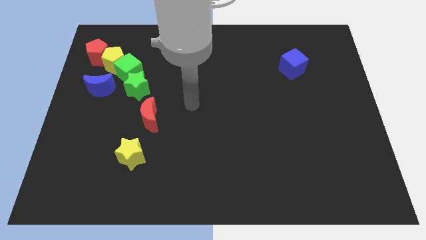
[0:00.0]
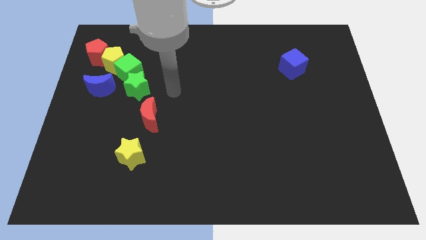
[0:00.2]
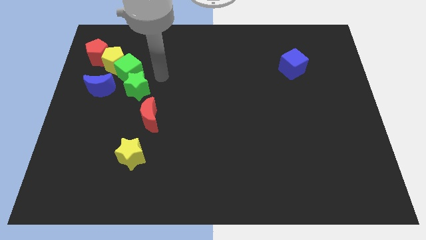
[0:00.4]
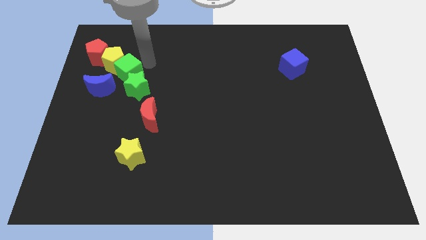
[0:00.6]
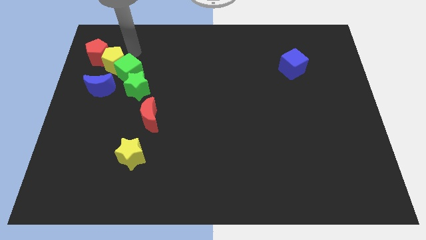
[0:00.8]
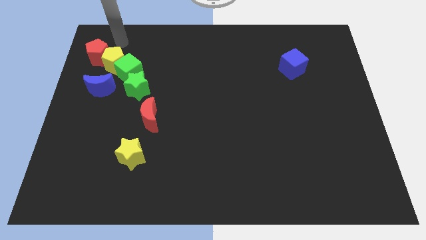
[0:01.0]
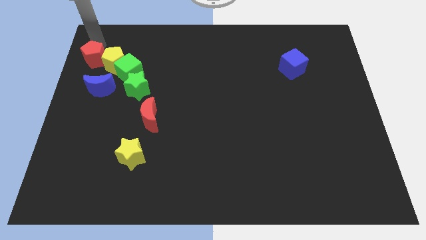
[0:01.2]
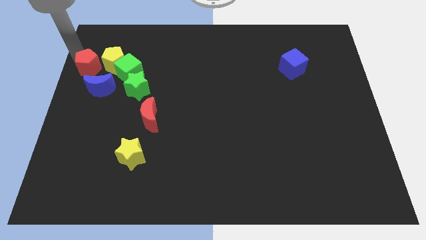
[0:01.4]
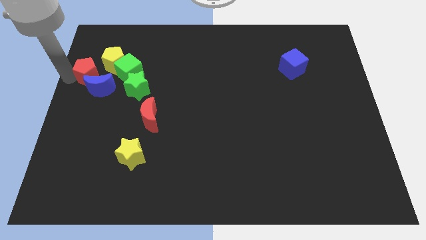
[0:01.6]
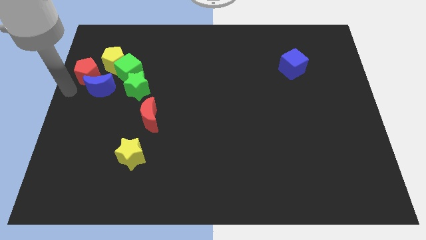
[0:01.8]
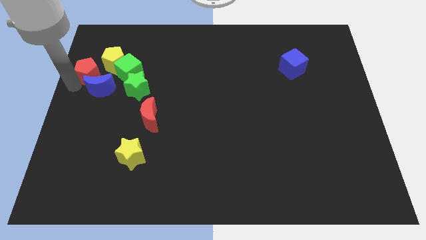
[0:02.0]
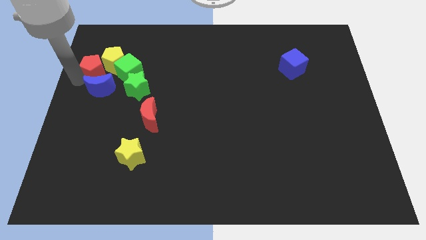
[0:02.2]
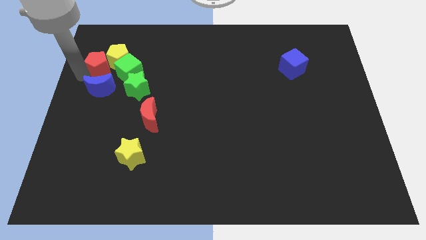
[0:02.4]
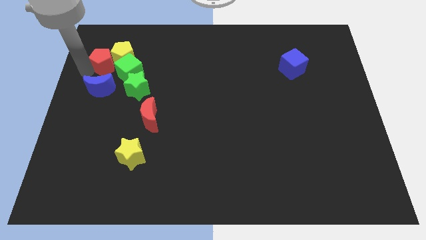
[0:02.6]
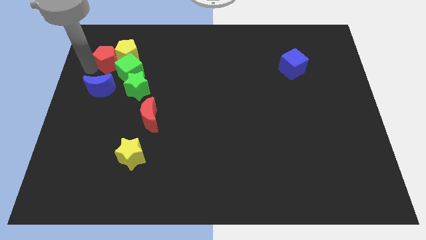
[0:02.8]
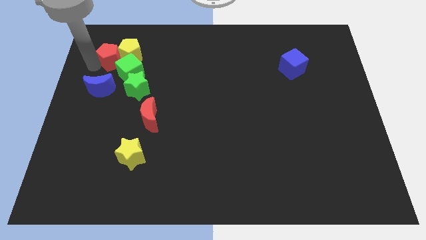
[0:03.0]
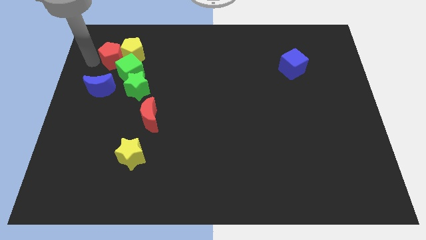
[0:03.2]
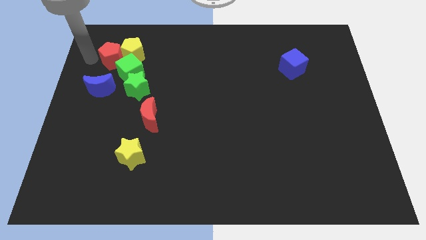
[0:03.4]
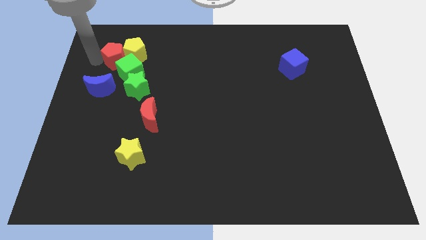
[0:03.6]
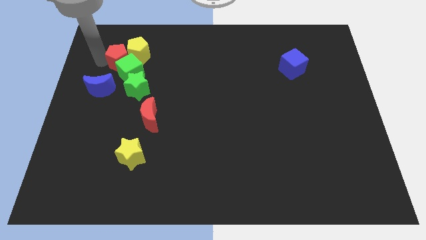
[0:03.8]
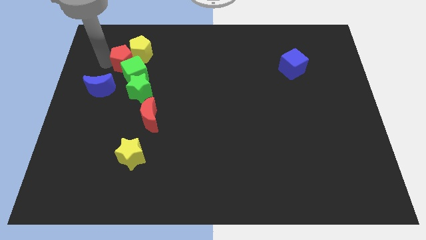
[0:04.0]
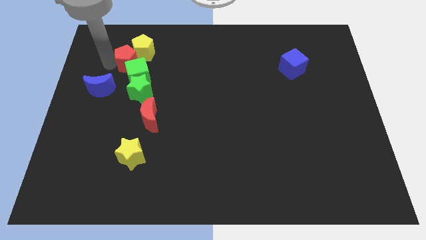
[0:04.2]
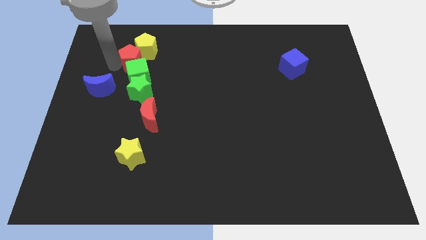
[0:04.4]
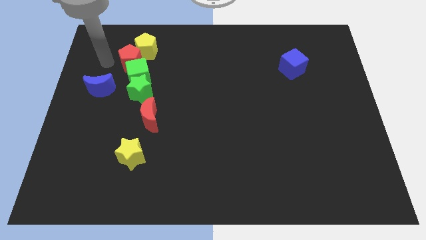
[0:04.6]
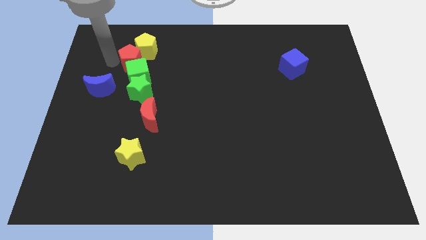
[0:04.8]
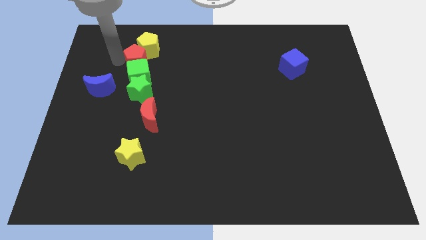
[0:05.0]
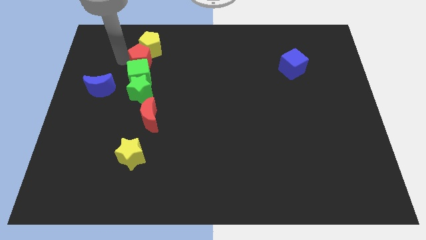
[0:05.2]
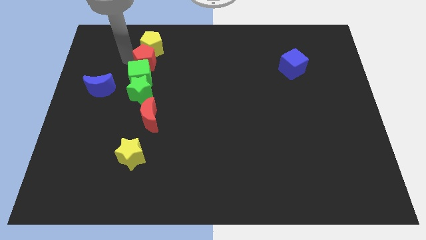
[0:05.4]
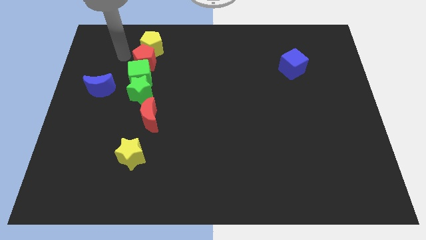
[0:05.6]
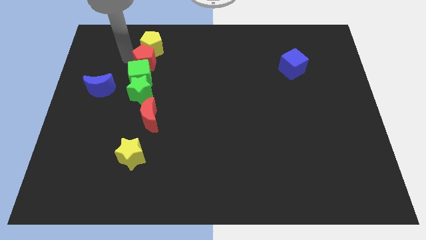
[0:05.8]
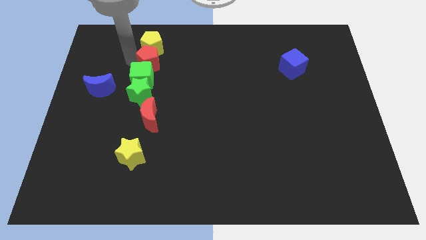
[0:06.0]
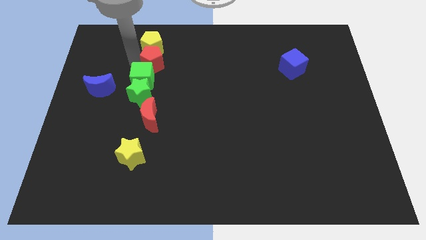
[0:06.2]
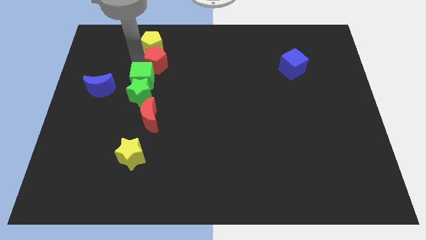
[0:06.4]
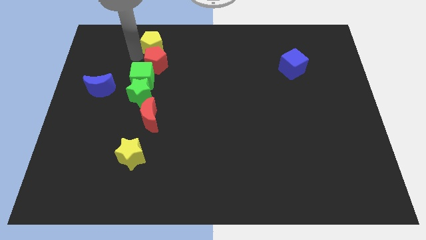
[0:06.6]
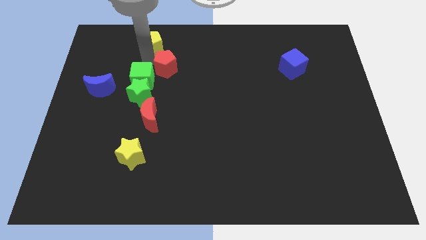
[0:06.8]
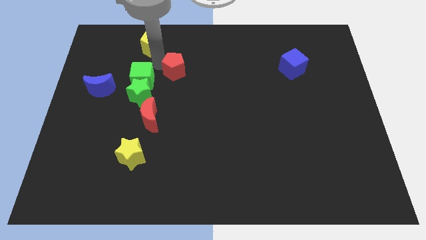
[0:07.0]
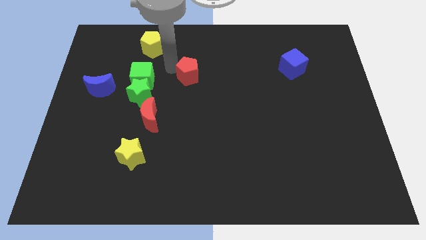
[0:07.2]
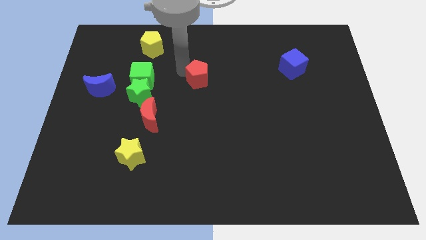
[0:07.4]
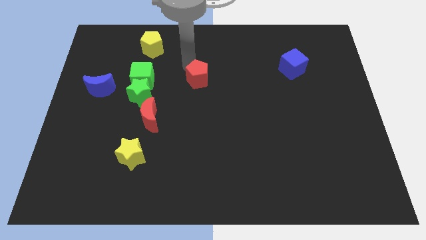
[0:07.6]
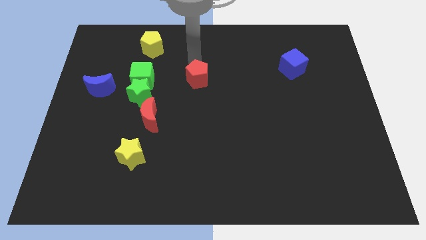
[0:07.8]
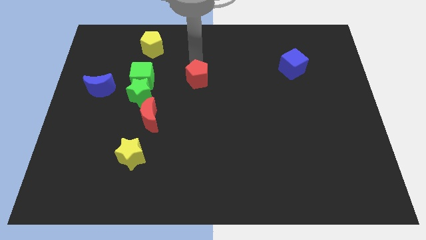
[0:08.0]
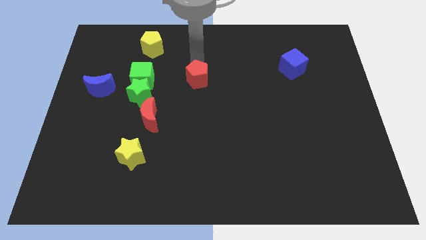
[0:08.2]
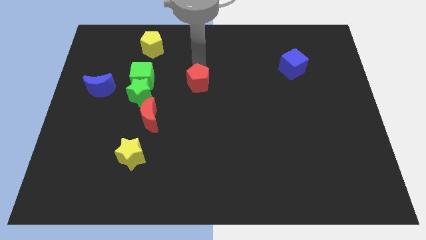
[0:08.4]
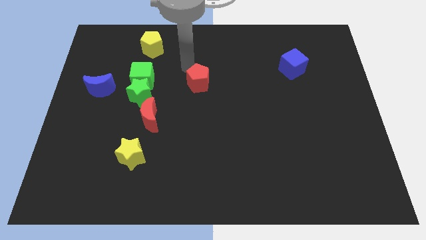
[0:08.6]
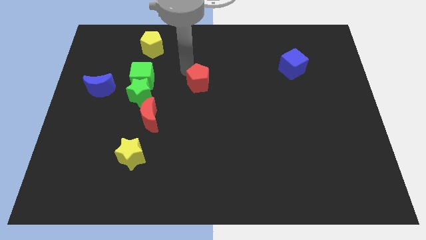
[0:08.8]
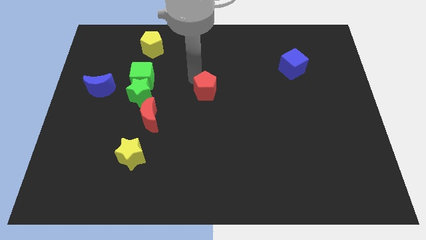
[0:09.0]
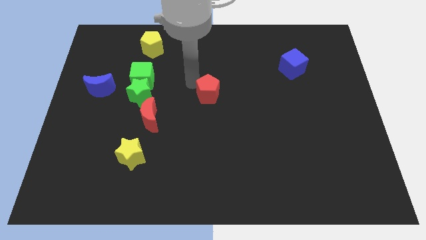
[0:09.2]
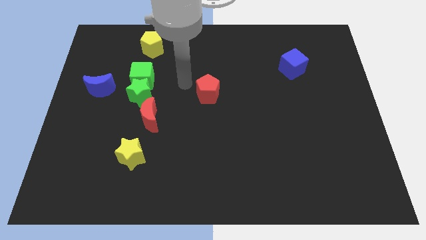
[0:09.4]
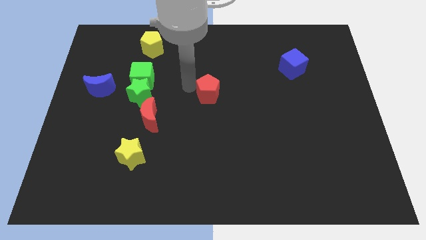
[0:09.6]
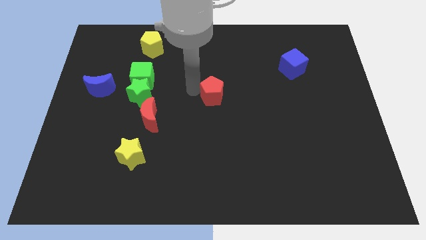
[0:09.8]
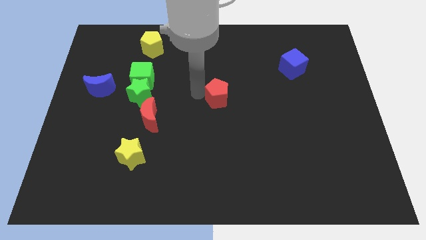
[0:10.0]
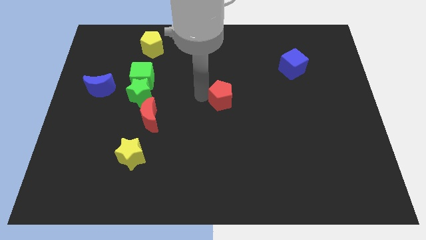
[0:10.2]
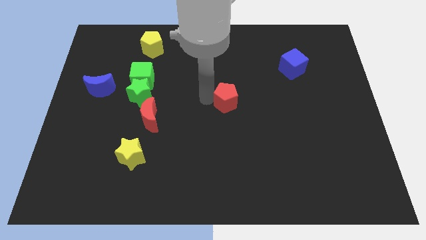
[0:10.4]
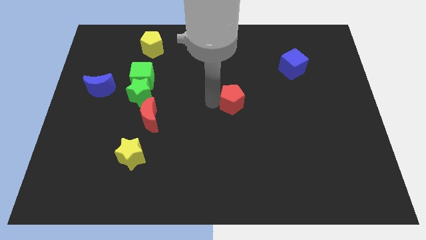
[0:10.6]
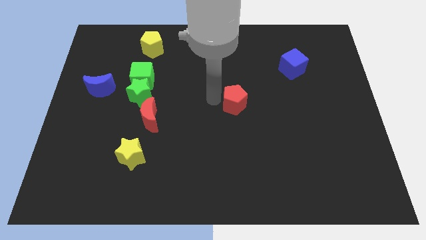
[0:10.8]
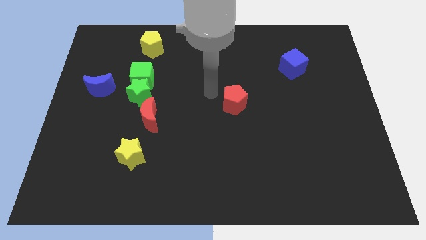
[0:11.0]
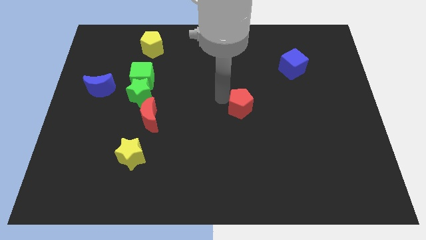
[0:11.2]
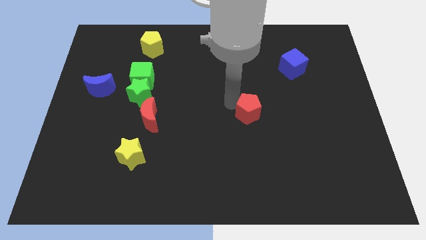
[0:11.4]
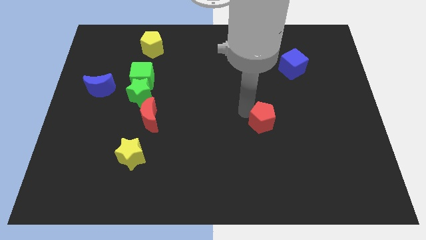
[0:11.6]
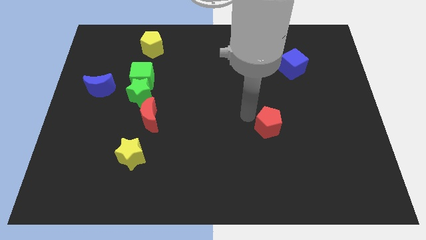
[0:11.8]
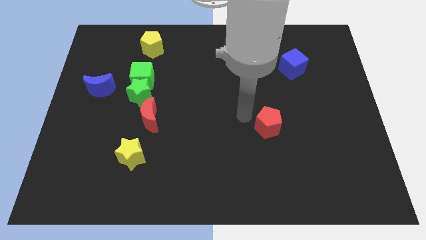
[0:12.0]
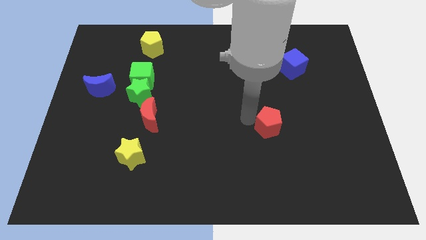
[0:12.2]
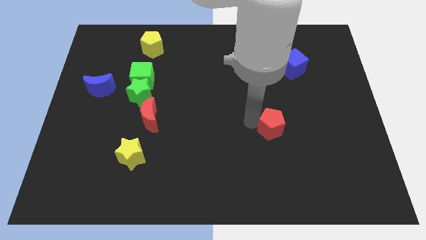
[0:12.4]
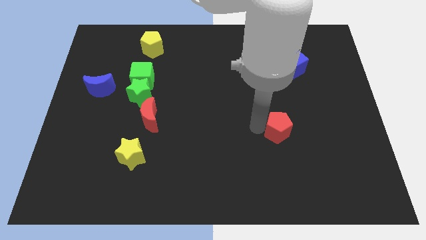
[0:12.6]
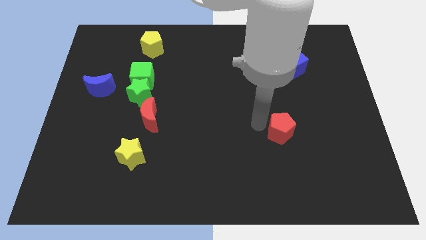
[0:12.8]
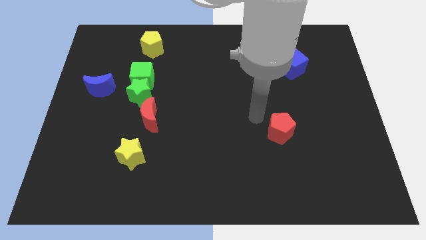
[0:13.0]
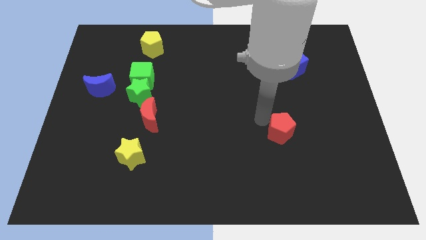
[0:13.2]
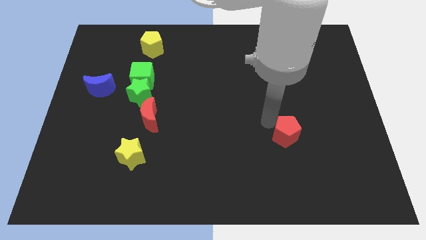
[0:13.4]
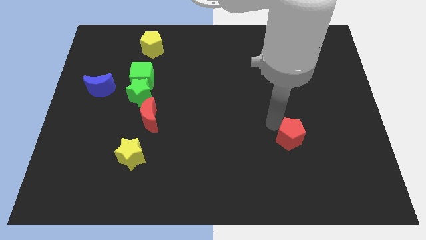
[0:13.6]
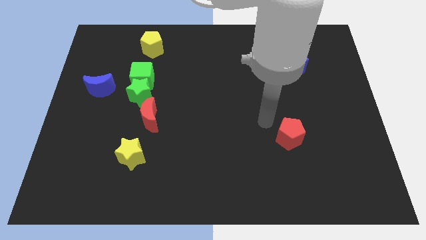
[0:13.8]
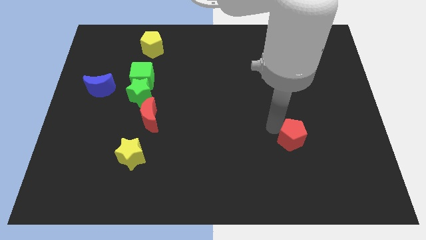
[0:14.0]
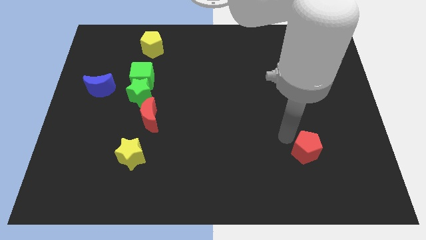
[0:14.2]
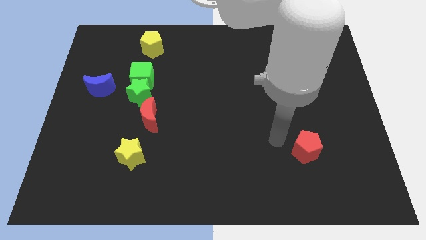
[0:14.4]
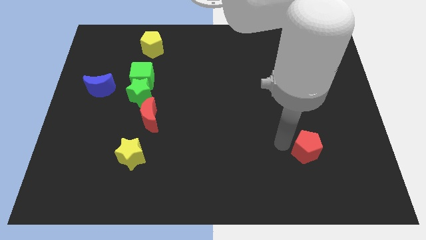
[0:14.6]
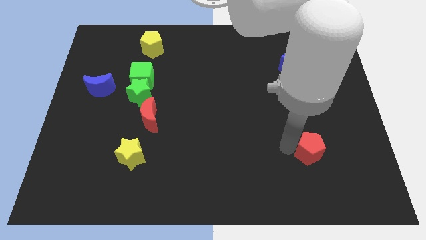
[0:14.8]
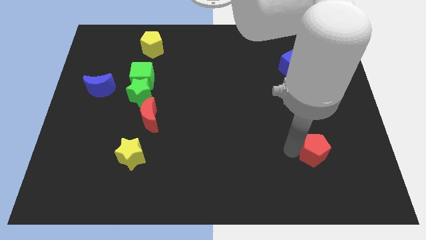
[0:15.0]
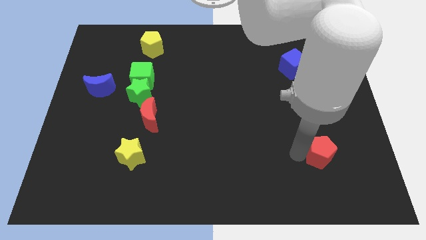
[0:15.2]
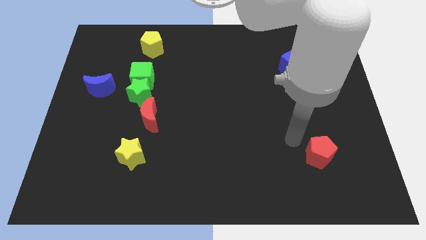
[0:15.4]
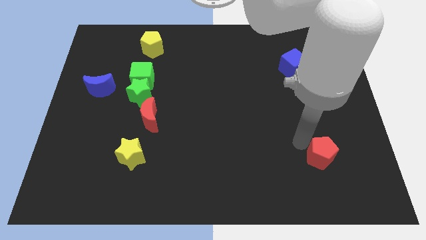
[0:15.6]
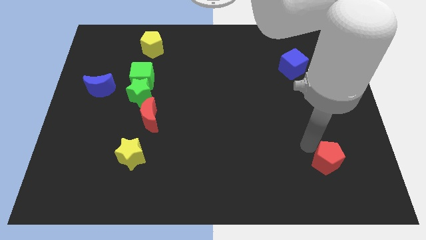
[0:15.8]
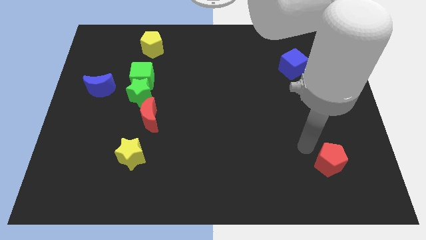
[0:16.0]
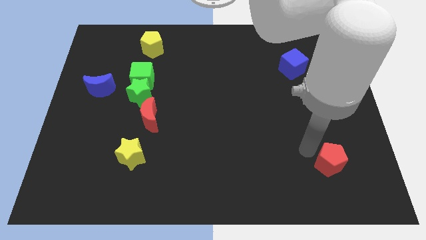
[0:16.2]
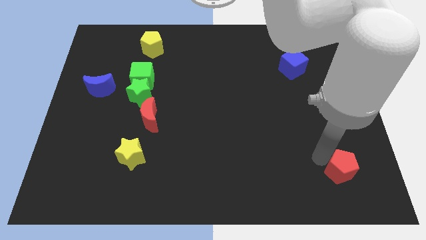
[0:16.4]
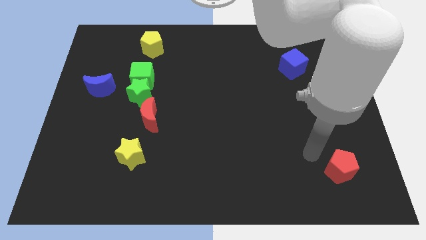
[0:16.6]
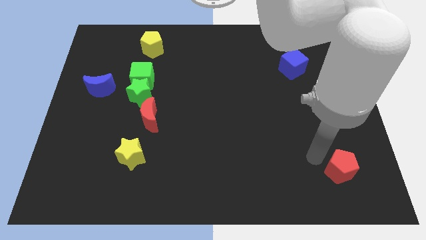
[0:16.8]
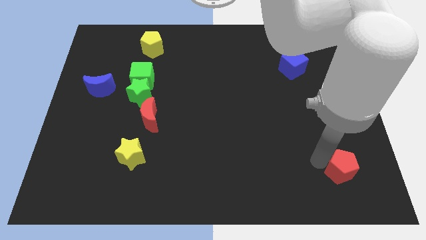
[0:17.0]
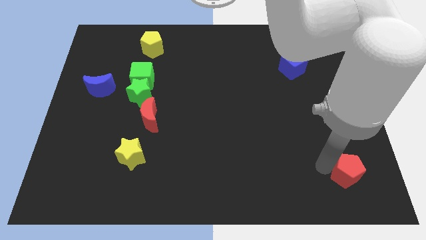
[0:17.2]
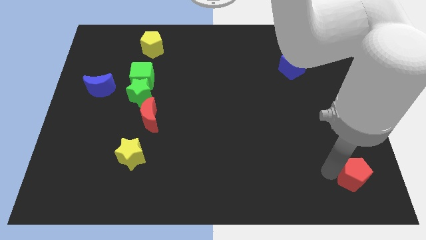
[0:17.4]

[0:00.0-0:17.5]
push the red pentagon to the bottom right of the board
